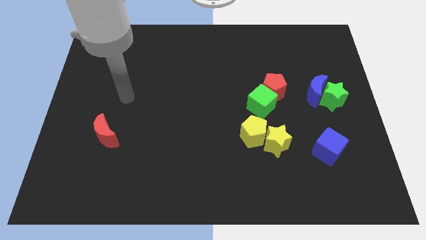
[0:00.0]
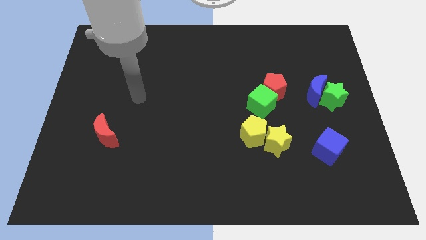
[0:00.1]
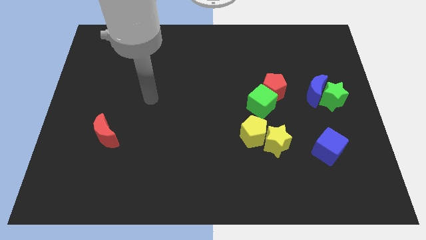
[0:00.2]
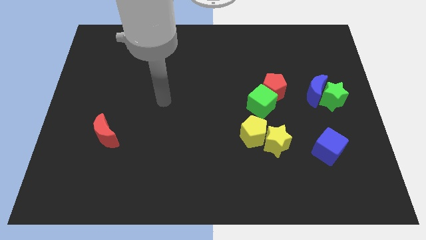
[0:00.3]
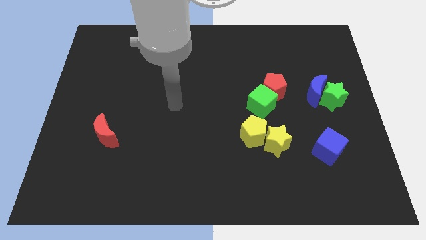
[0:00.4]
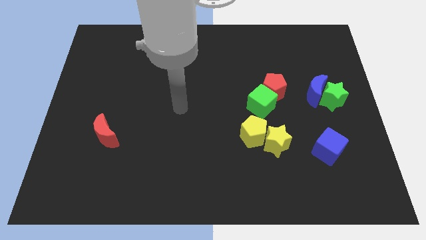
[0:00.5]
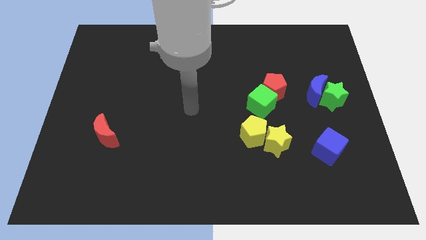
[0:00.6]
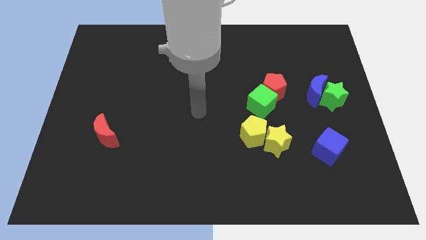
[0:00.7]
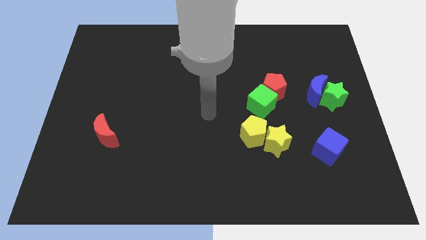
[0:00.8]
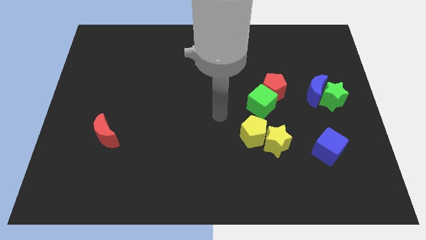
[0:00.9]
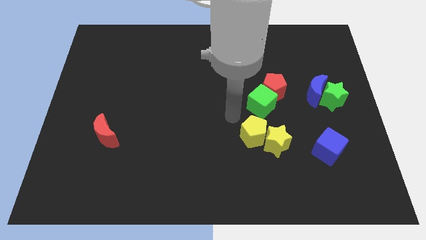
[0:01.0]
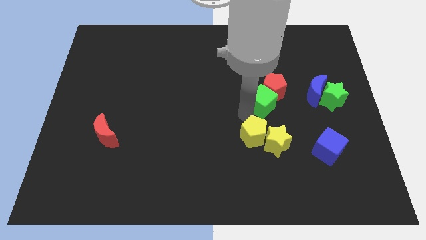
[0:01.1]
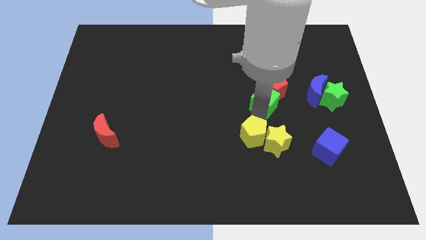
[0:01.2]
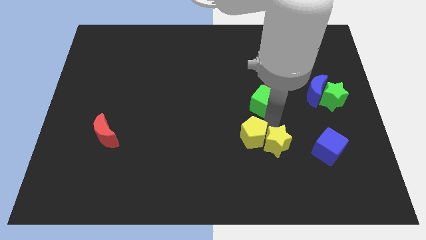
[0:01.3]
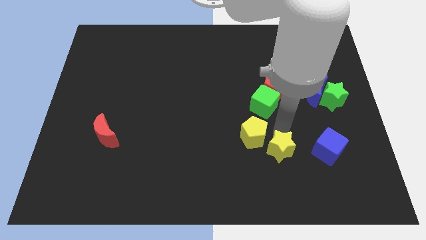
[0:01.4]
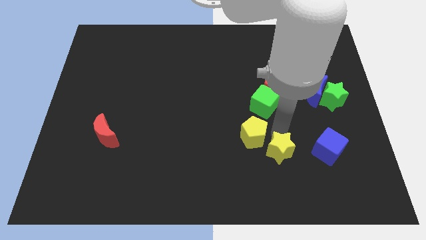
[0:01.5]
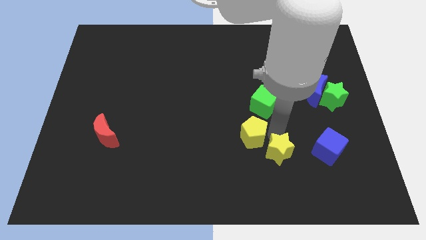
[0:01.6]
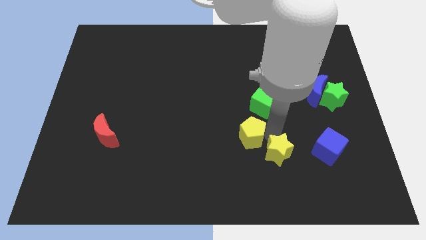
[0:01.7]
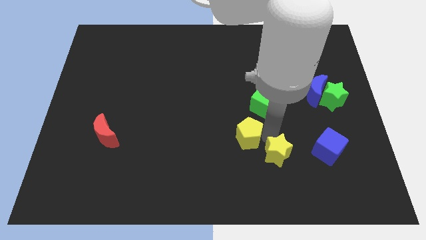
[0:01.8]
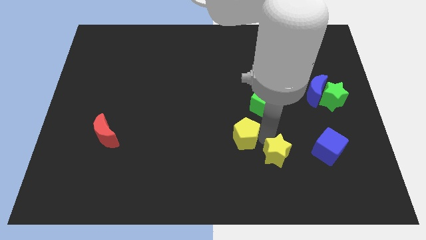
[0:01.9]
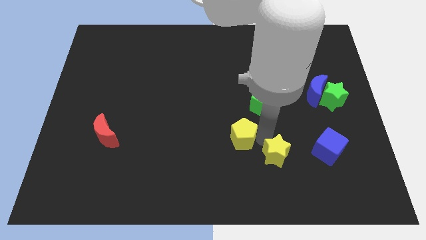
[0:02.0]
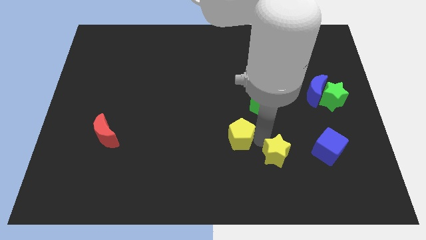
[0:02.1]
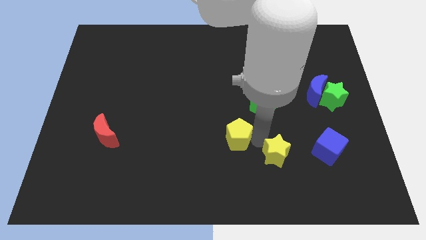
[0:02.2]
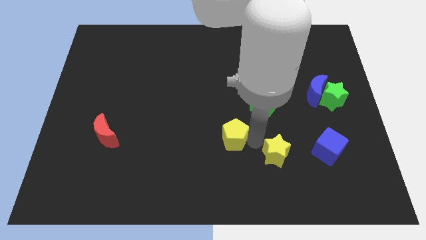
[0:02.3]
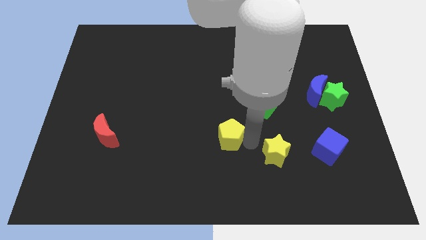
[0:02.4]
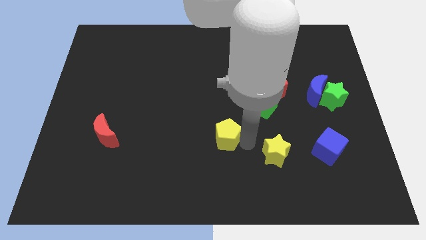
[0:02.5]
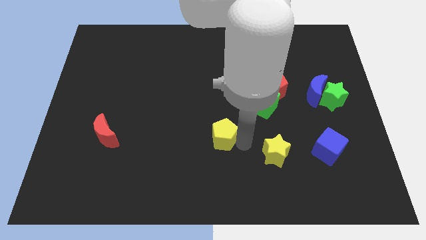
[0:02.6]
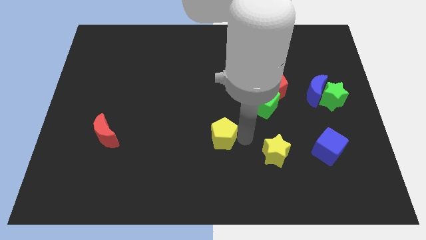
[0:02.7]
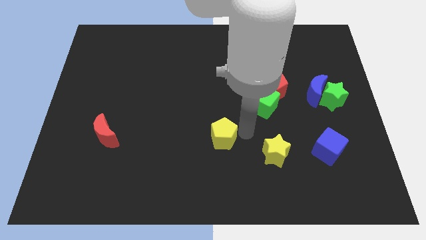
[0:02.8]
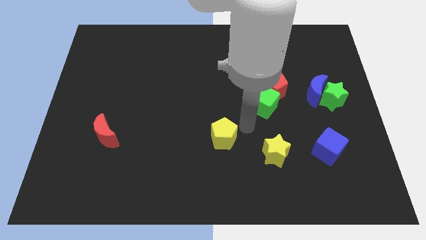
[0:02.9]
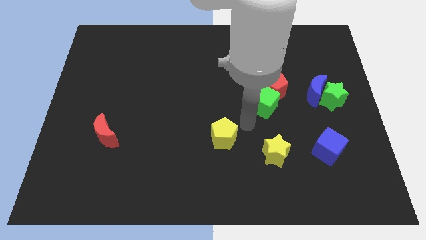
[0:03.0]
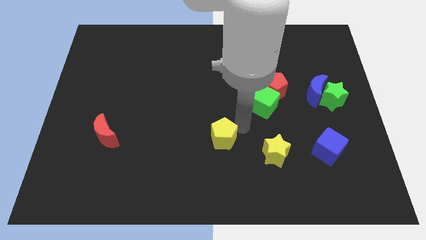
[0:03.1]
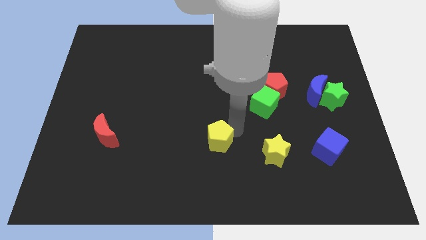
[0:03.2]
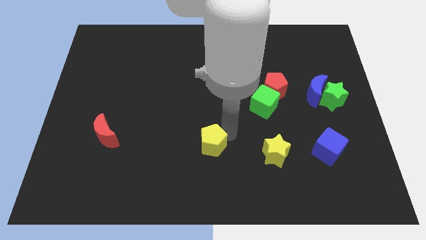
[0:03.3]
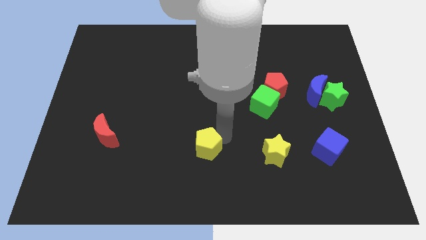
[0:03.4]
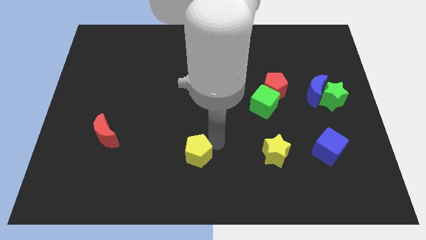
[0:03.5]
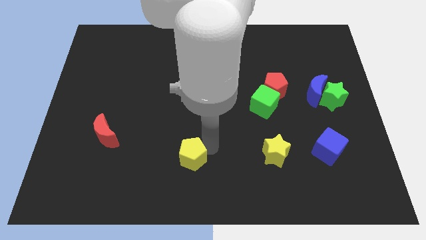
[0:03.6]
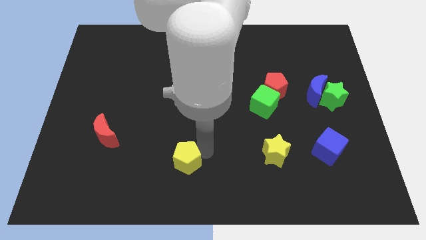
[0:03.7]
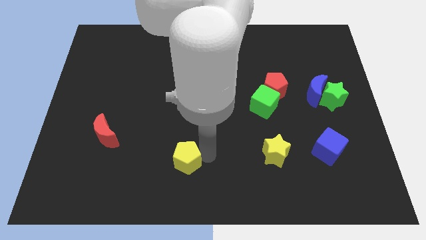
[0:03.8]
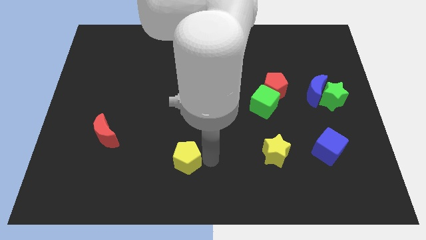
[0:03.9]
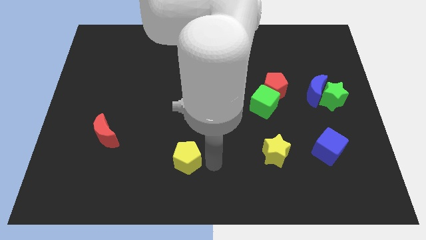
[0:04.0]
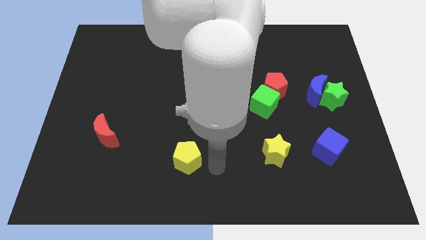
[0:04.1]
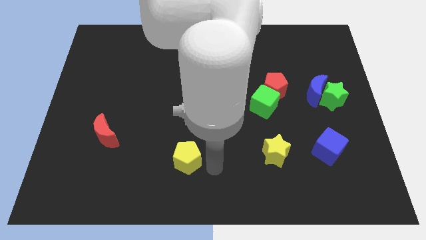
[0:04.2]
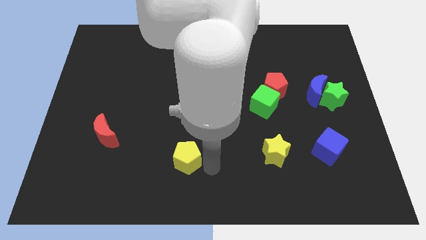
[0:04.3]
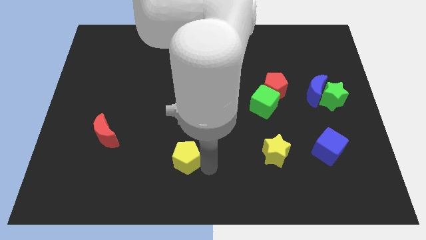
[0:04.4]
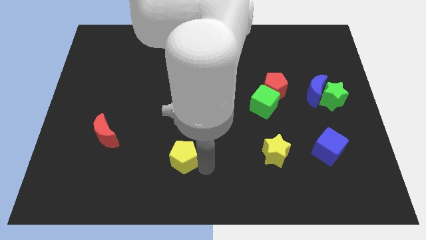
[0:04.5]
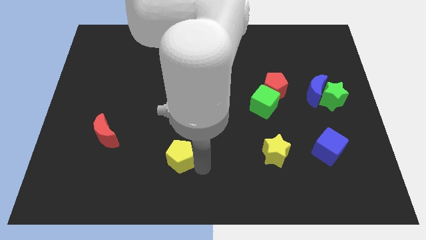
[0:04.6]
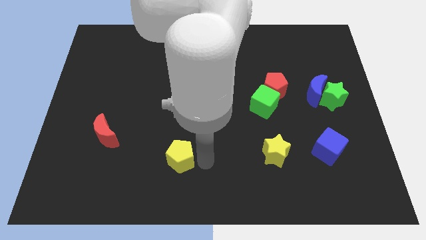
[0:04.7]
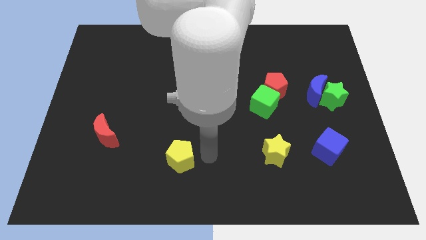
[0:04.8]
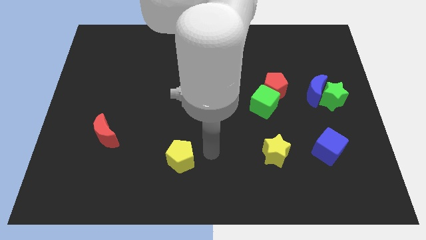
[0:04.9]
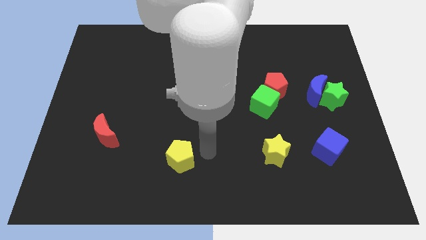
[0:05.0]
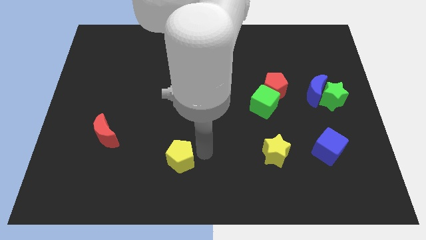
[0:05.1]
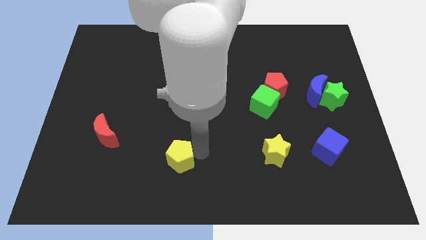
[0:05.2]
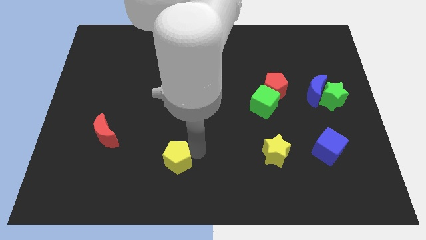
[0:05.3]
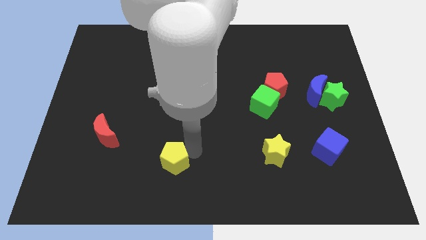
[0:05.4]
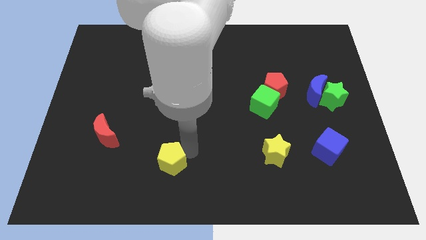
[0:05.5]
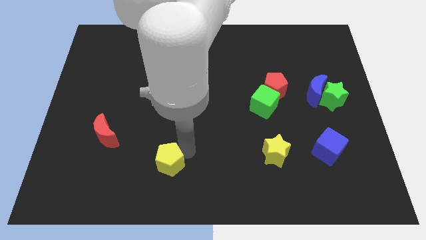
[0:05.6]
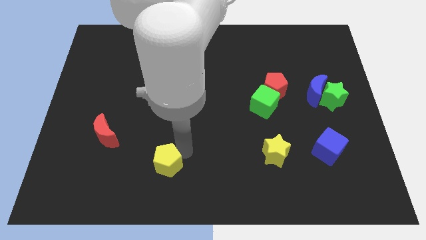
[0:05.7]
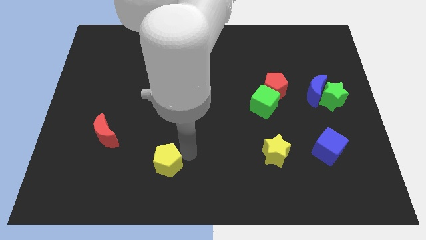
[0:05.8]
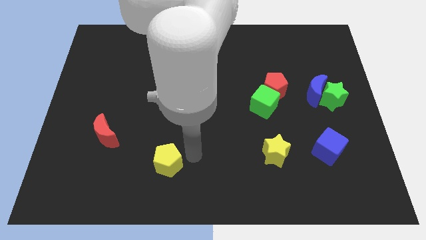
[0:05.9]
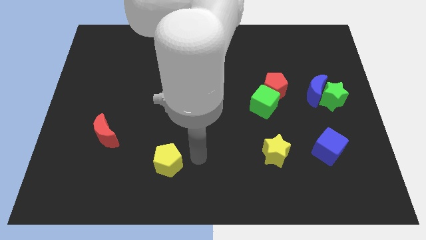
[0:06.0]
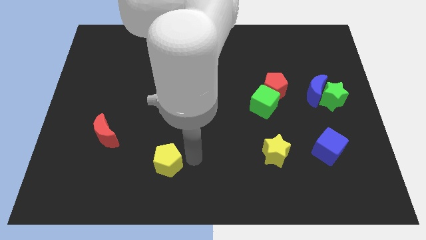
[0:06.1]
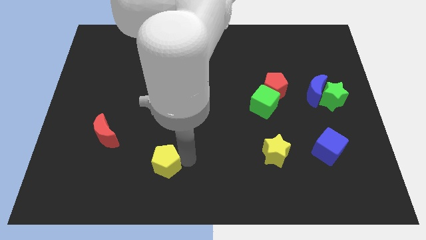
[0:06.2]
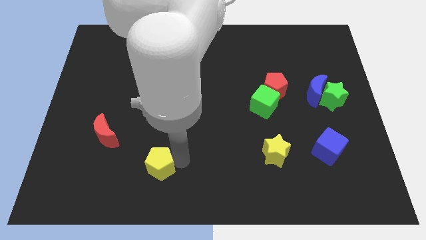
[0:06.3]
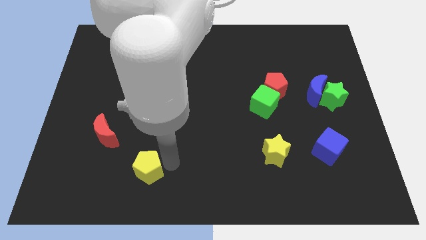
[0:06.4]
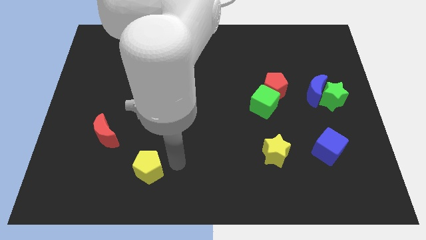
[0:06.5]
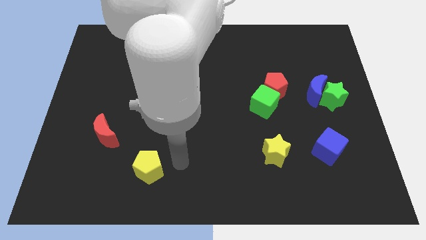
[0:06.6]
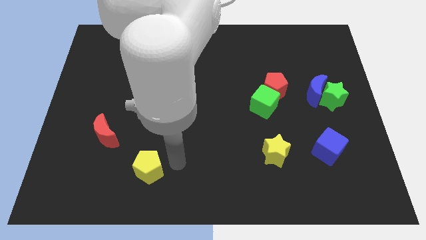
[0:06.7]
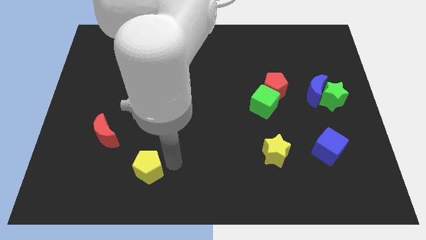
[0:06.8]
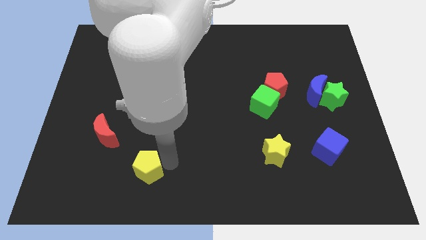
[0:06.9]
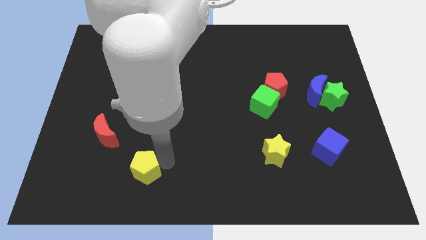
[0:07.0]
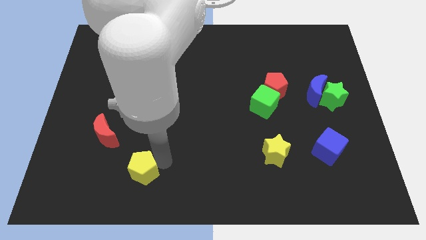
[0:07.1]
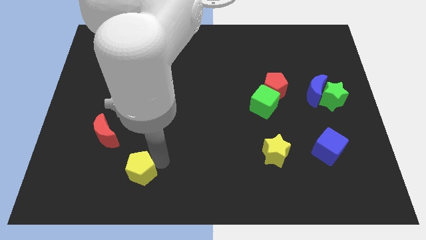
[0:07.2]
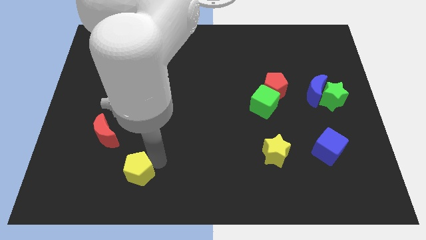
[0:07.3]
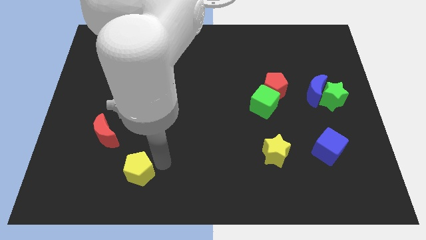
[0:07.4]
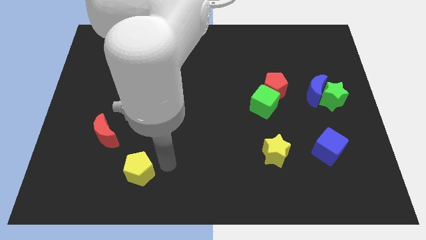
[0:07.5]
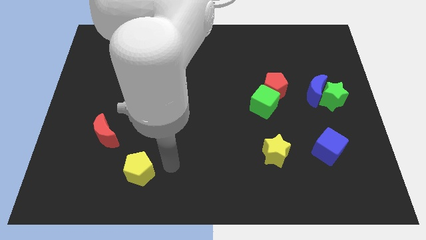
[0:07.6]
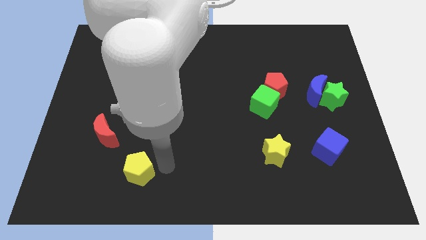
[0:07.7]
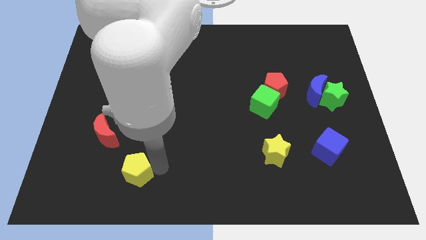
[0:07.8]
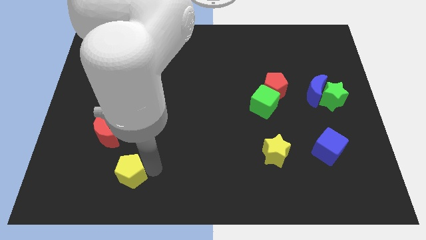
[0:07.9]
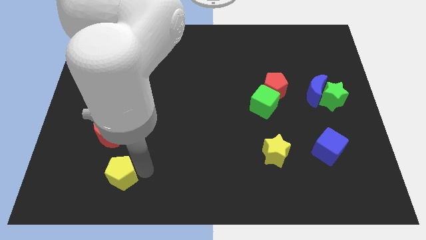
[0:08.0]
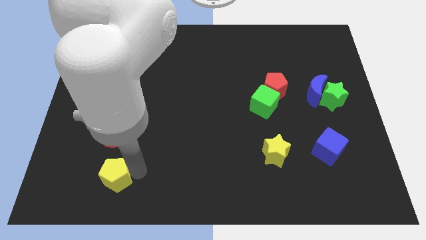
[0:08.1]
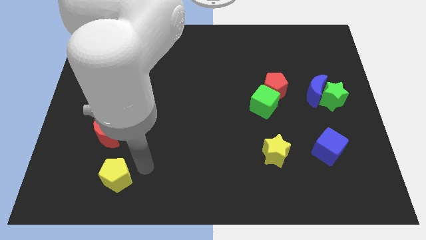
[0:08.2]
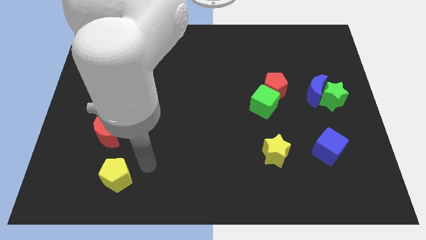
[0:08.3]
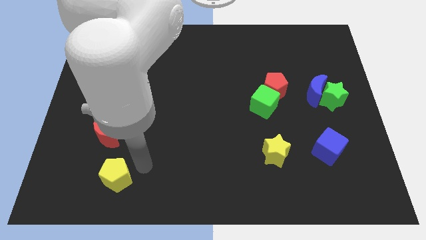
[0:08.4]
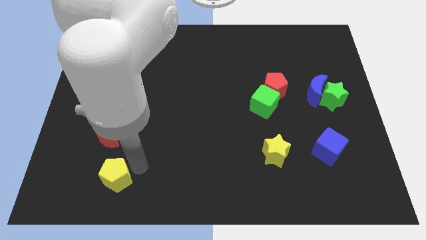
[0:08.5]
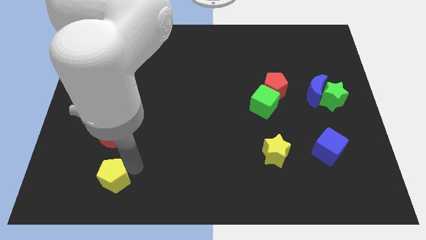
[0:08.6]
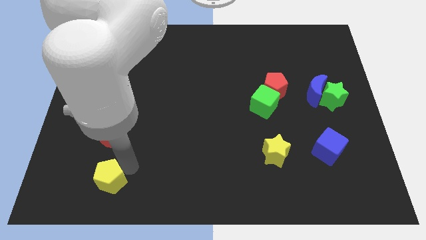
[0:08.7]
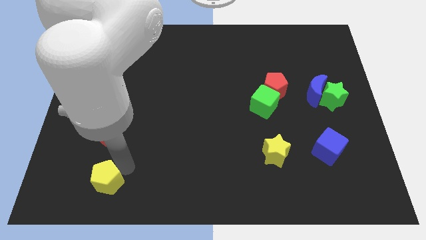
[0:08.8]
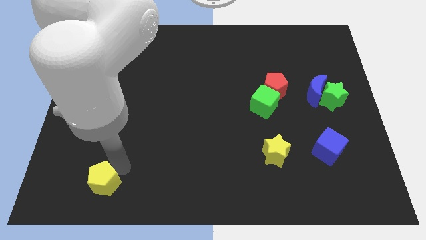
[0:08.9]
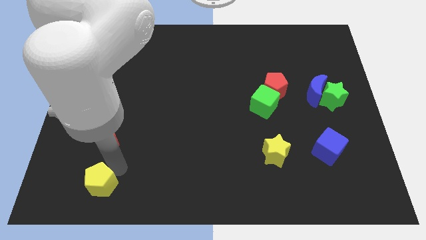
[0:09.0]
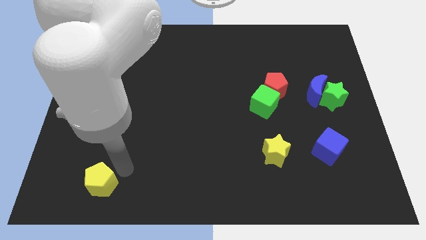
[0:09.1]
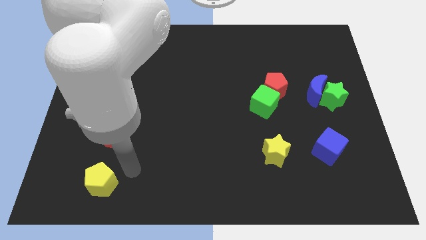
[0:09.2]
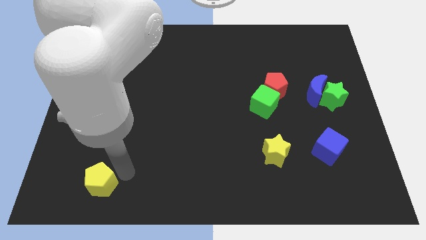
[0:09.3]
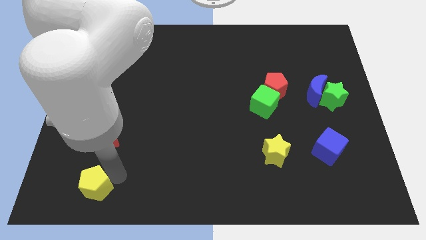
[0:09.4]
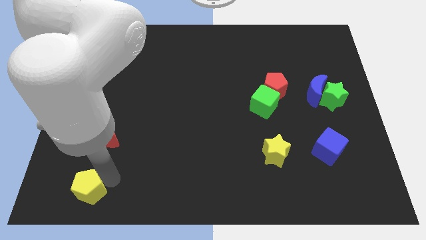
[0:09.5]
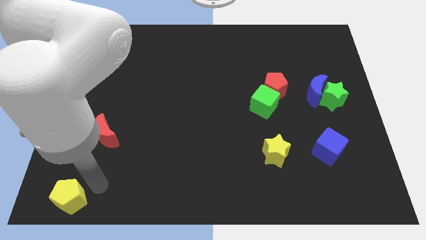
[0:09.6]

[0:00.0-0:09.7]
put the yellow pentagon to the bottom left of the board
